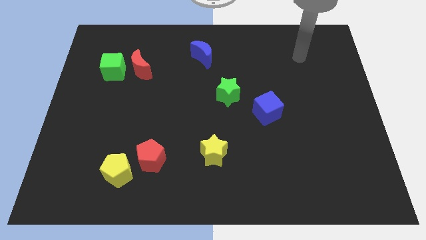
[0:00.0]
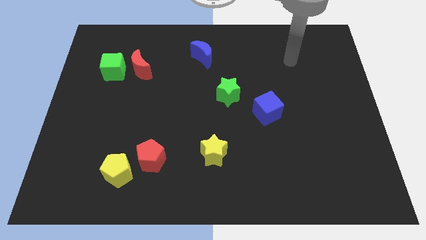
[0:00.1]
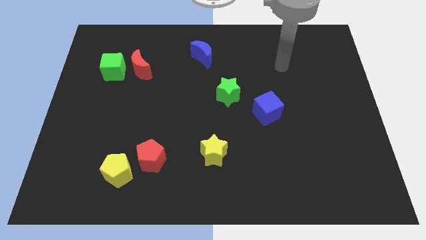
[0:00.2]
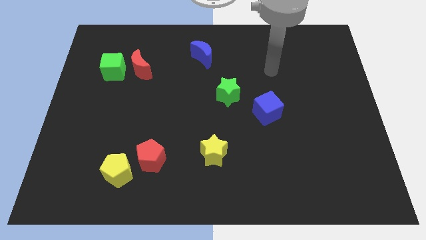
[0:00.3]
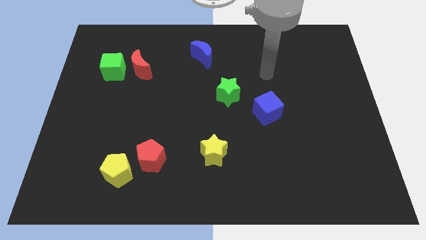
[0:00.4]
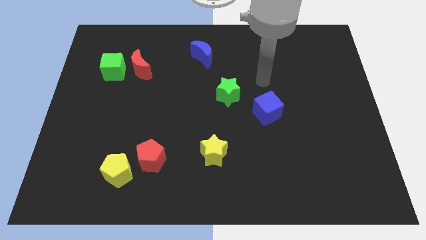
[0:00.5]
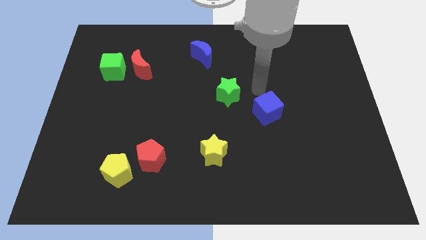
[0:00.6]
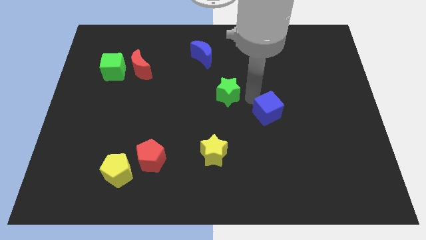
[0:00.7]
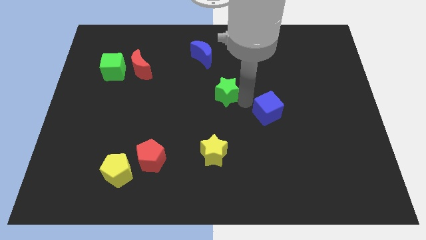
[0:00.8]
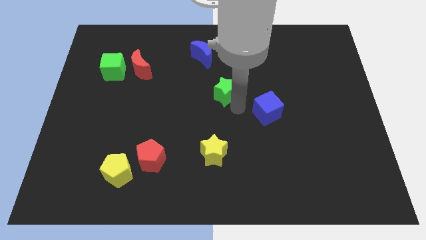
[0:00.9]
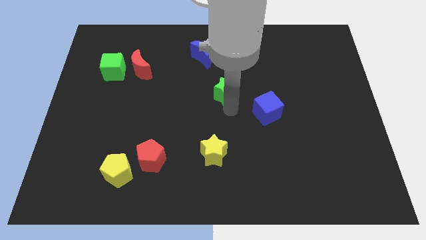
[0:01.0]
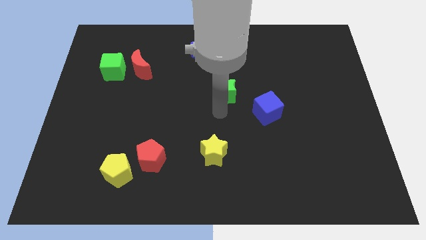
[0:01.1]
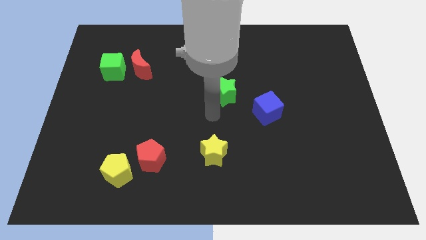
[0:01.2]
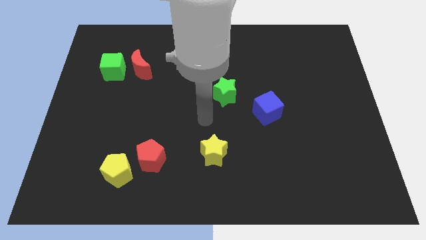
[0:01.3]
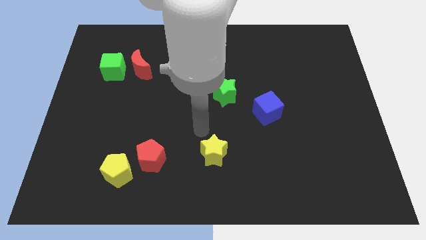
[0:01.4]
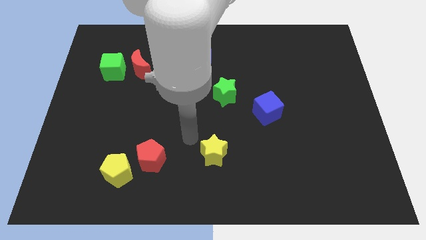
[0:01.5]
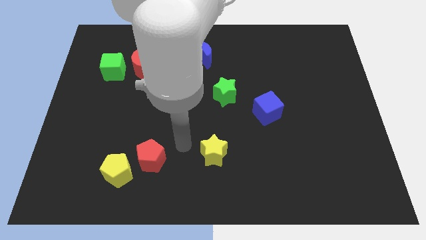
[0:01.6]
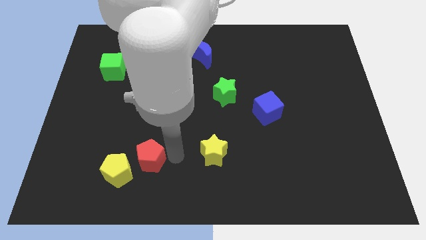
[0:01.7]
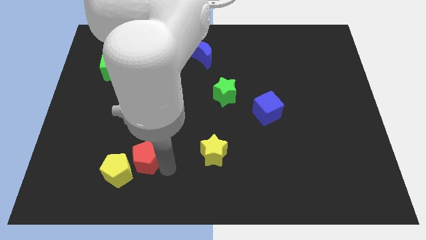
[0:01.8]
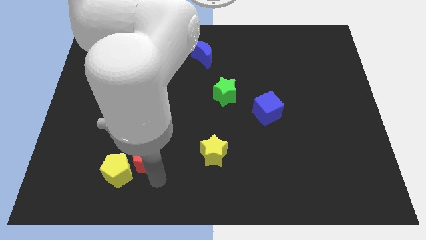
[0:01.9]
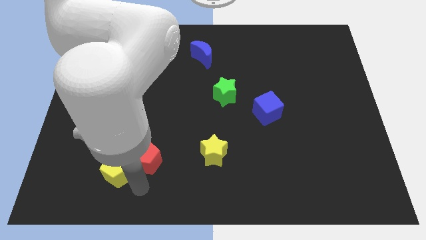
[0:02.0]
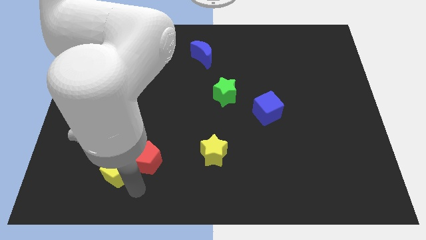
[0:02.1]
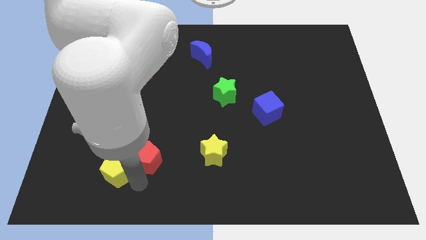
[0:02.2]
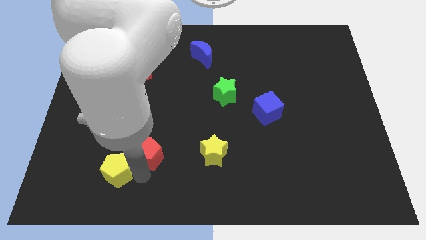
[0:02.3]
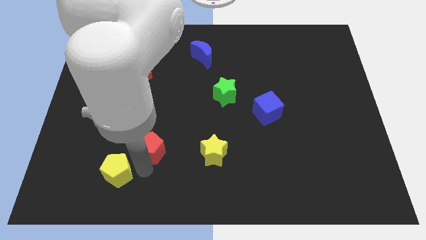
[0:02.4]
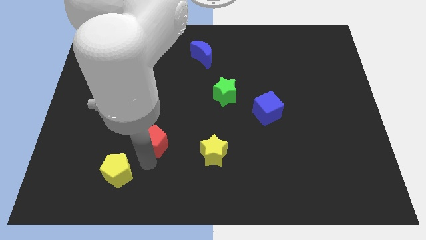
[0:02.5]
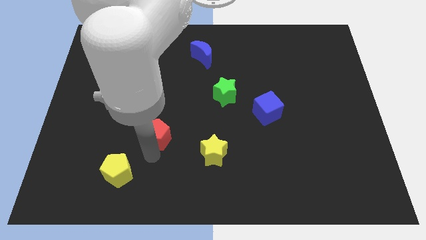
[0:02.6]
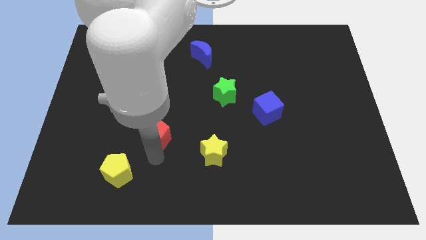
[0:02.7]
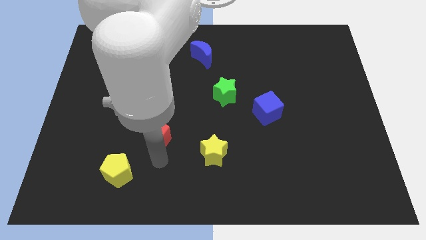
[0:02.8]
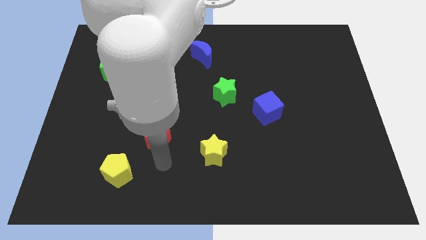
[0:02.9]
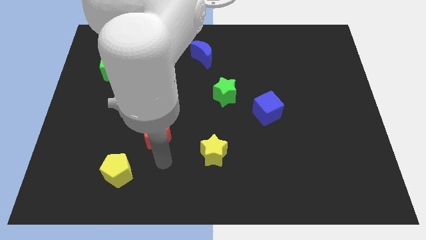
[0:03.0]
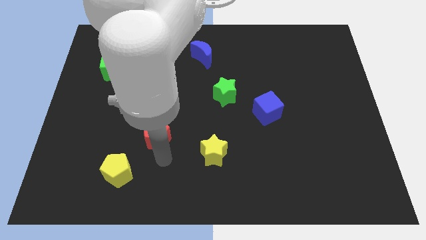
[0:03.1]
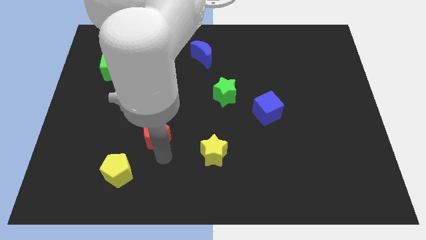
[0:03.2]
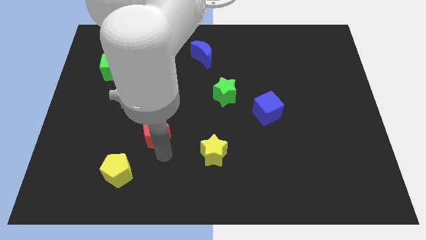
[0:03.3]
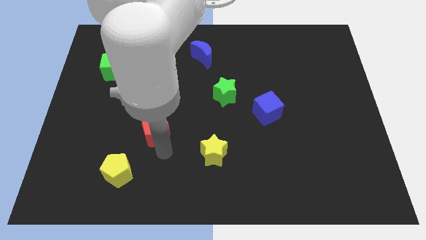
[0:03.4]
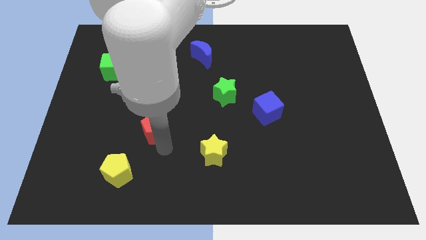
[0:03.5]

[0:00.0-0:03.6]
slightly slide the red pentagon upwards

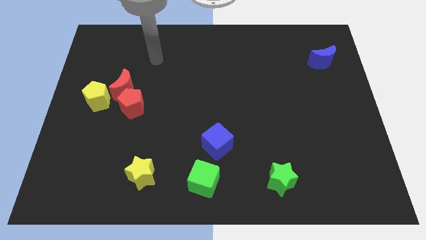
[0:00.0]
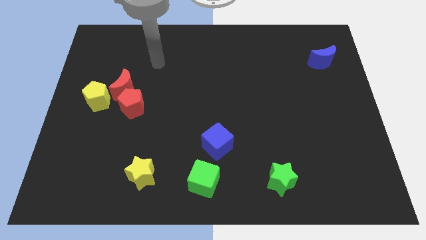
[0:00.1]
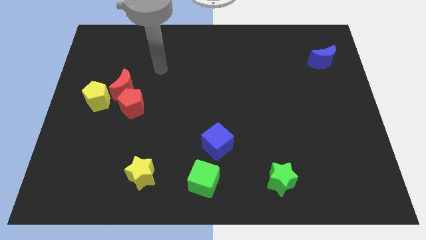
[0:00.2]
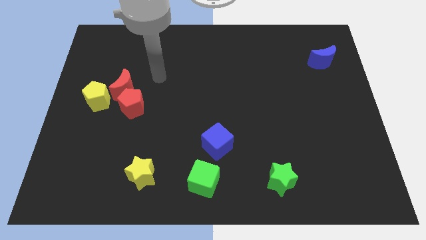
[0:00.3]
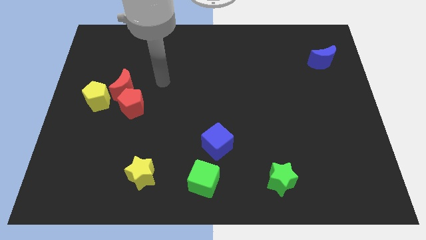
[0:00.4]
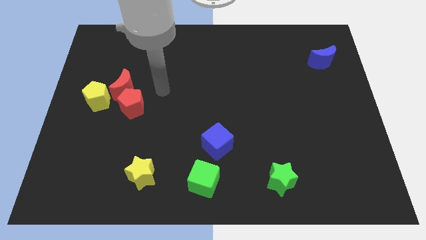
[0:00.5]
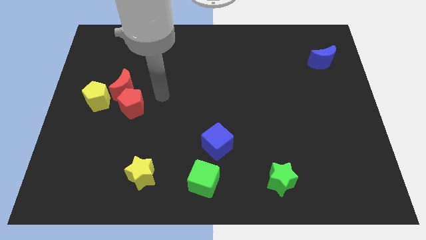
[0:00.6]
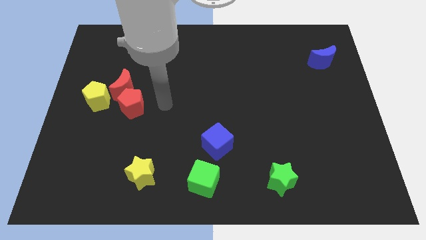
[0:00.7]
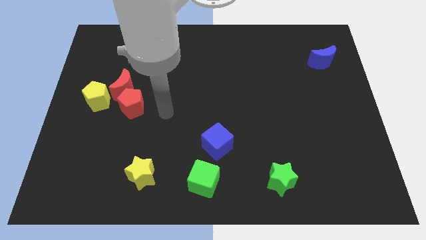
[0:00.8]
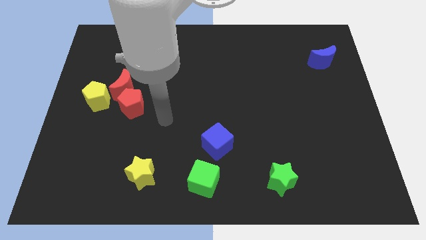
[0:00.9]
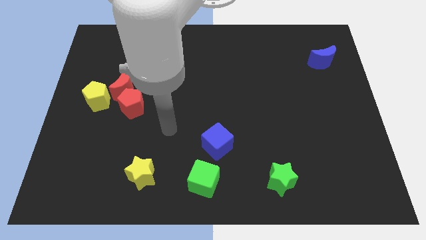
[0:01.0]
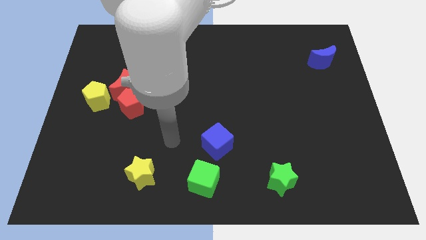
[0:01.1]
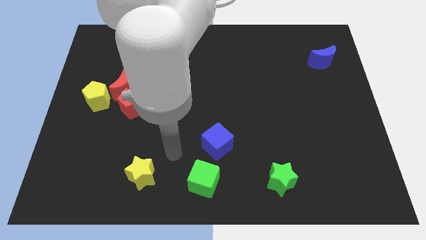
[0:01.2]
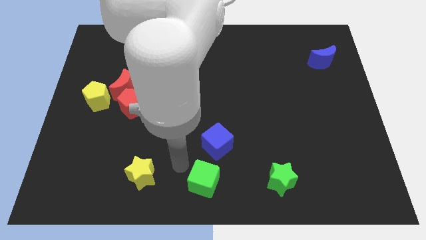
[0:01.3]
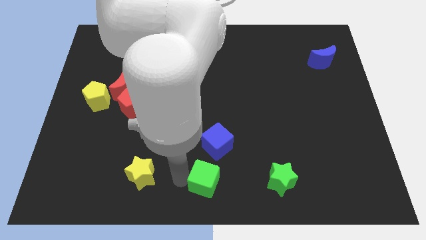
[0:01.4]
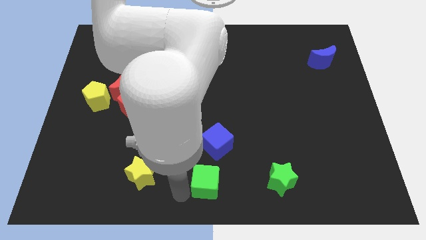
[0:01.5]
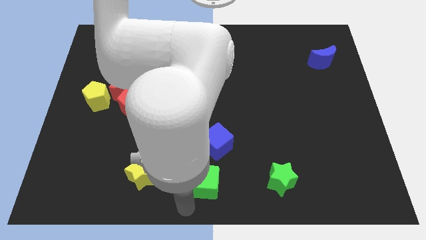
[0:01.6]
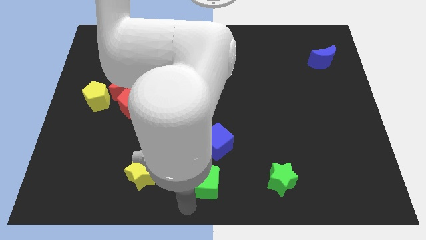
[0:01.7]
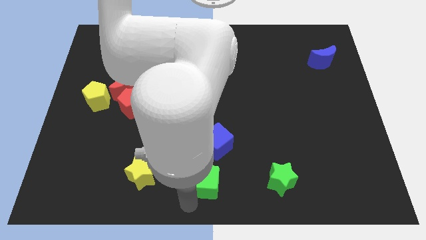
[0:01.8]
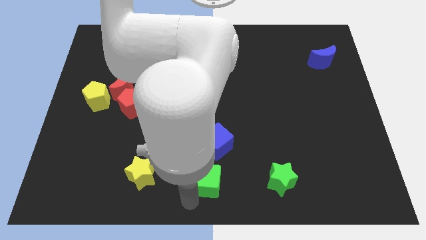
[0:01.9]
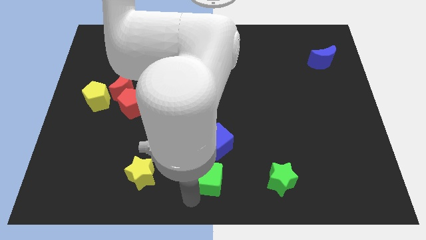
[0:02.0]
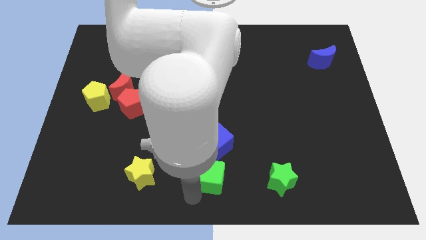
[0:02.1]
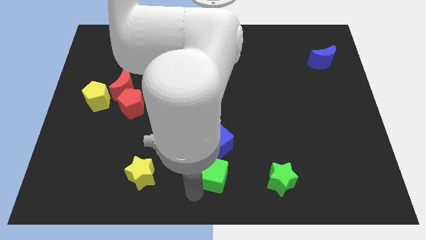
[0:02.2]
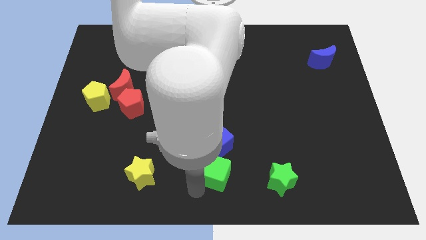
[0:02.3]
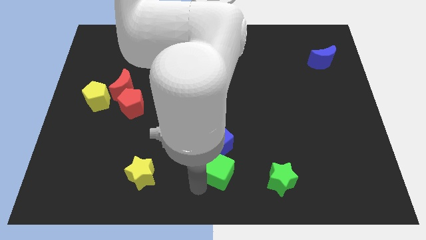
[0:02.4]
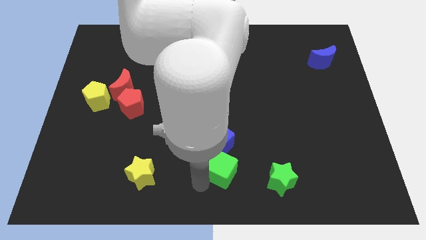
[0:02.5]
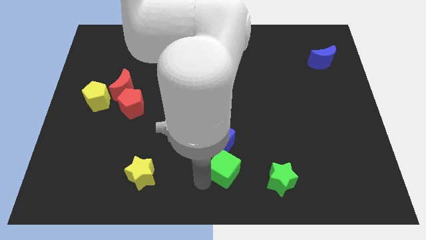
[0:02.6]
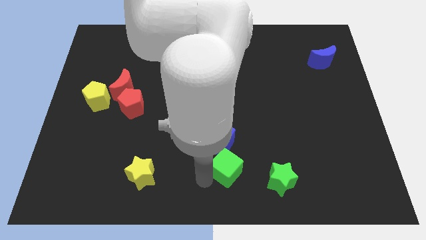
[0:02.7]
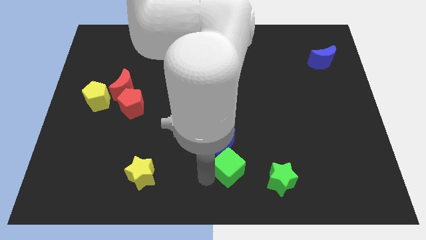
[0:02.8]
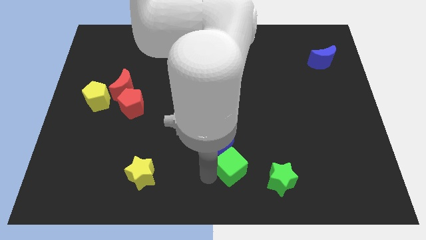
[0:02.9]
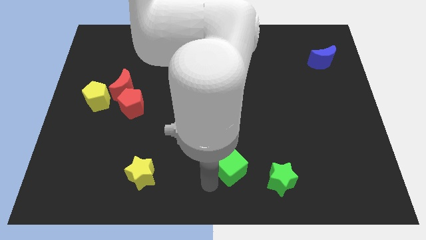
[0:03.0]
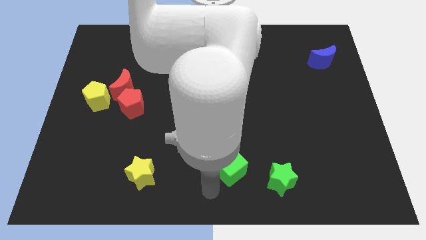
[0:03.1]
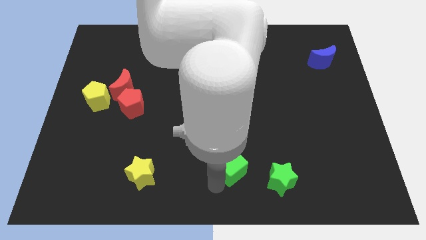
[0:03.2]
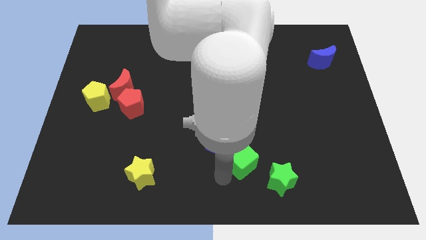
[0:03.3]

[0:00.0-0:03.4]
slide the green cube upwards and to the right a little
